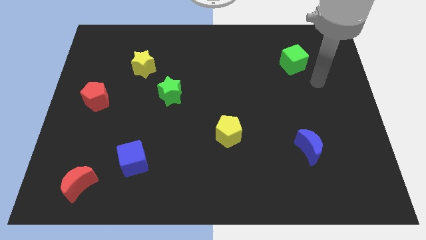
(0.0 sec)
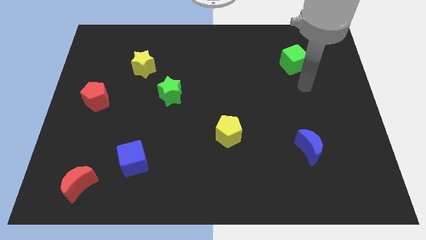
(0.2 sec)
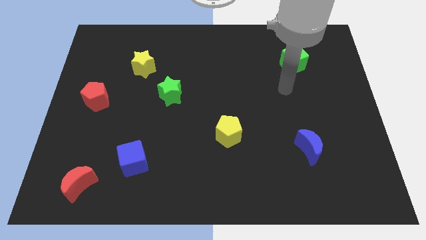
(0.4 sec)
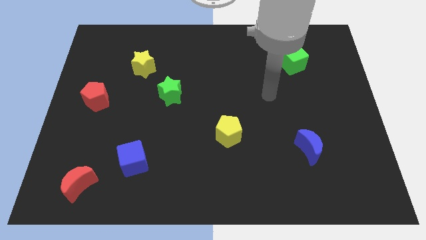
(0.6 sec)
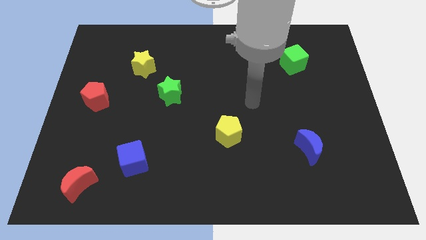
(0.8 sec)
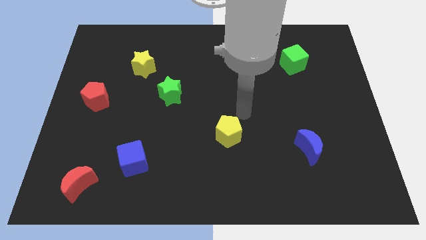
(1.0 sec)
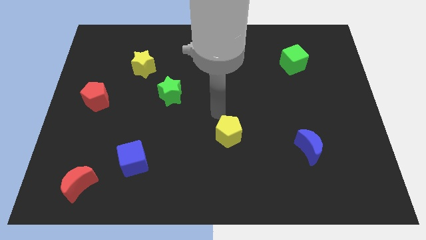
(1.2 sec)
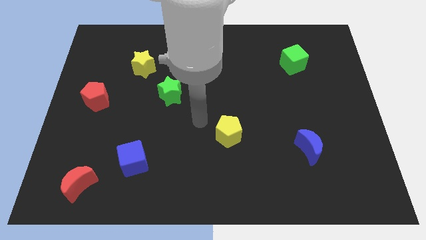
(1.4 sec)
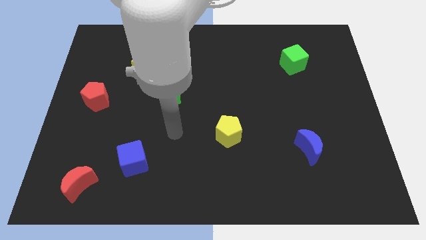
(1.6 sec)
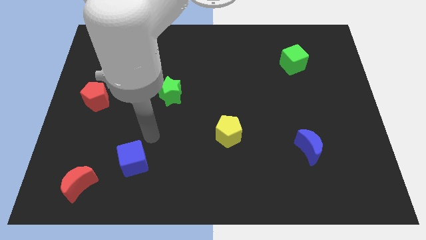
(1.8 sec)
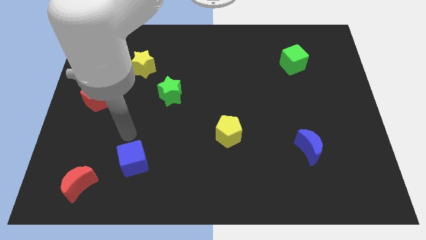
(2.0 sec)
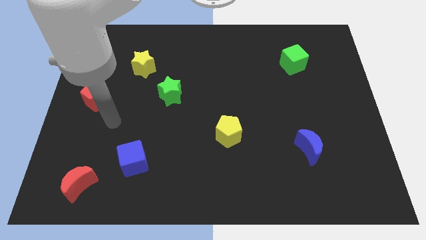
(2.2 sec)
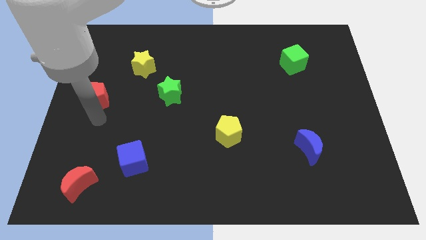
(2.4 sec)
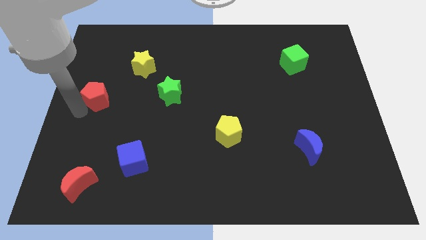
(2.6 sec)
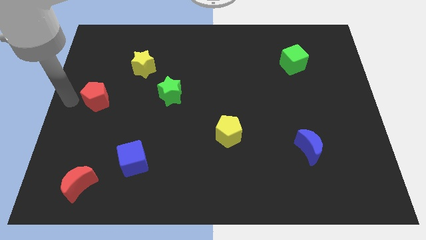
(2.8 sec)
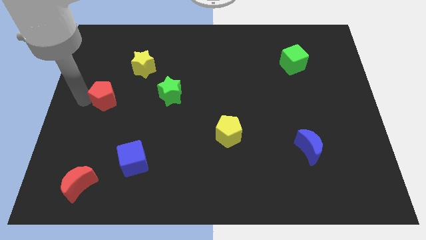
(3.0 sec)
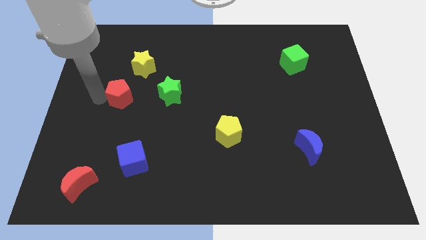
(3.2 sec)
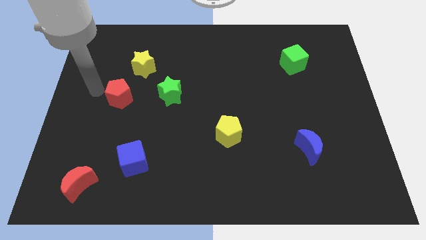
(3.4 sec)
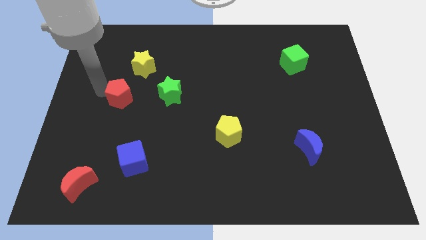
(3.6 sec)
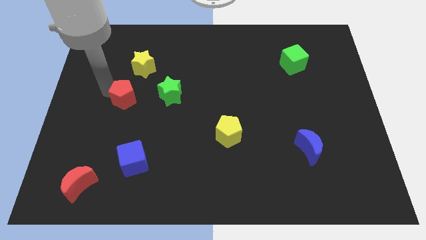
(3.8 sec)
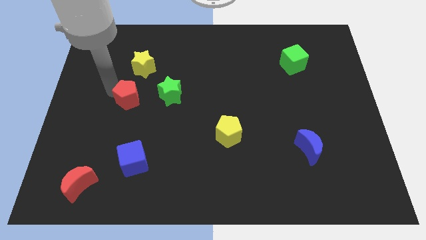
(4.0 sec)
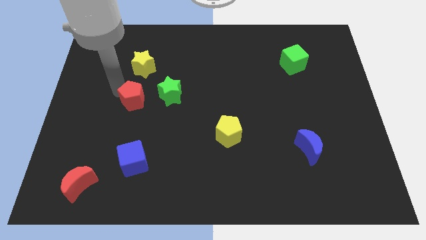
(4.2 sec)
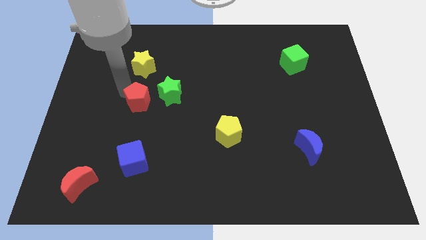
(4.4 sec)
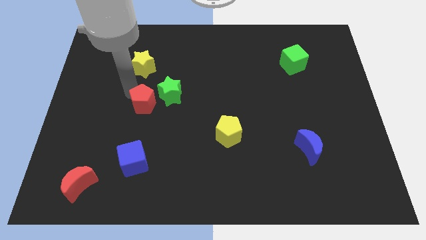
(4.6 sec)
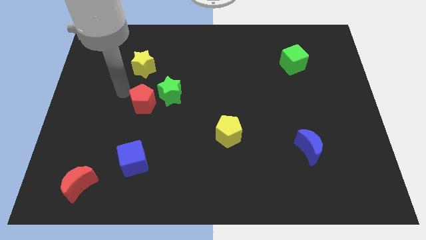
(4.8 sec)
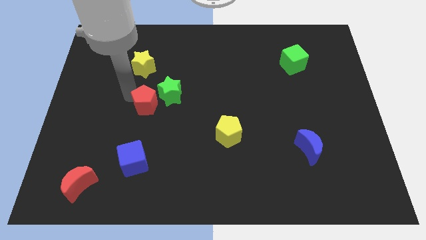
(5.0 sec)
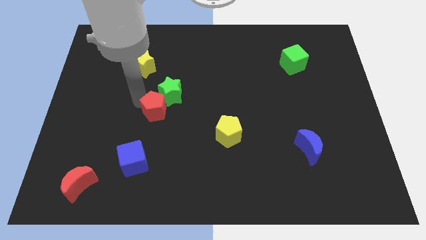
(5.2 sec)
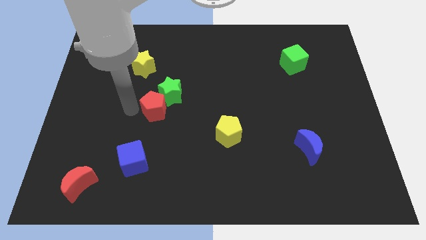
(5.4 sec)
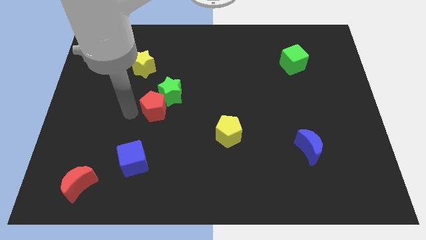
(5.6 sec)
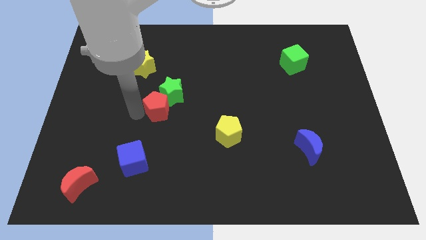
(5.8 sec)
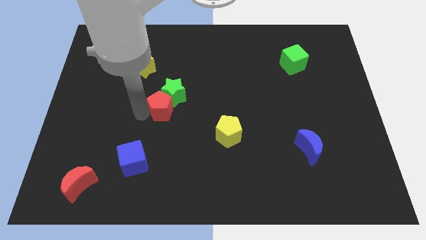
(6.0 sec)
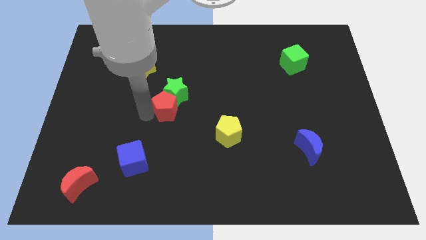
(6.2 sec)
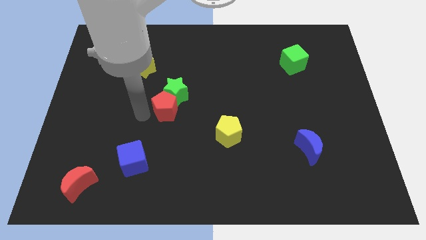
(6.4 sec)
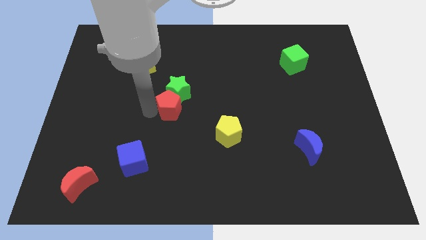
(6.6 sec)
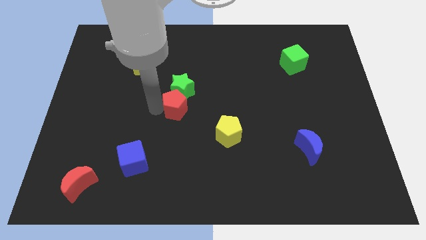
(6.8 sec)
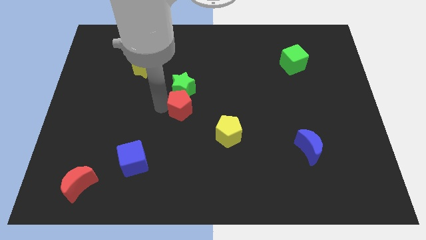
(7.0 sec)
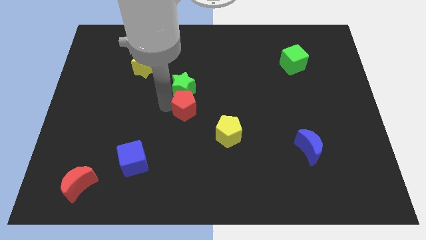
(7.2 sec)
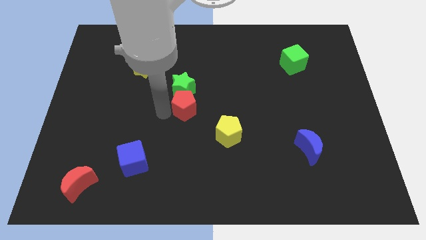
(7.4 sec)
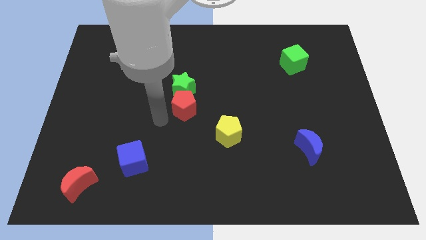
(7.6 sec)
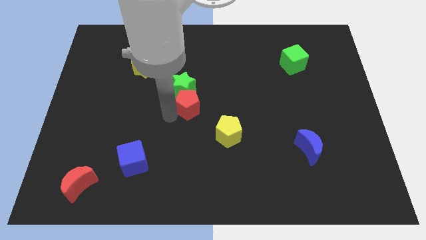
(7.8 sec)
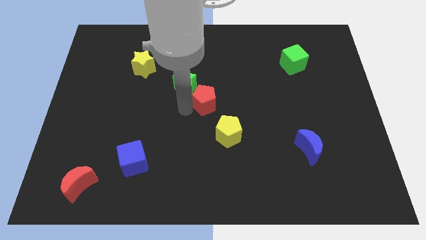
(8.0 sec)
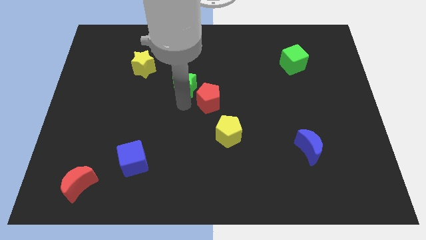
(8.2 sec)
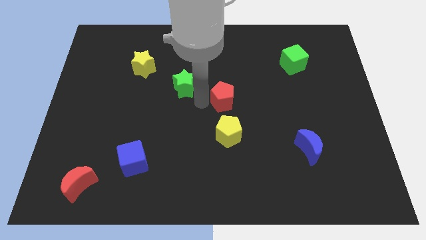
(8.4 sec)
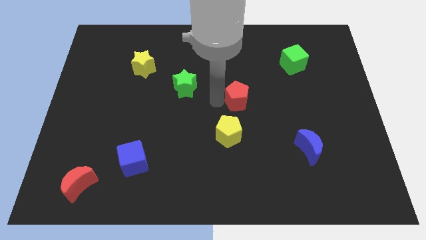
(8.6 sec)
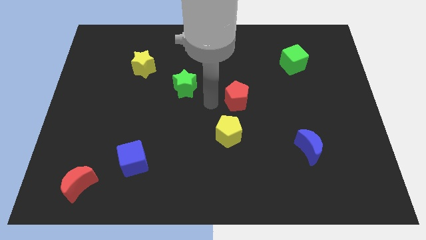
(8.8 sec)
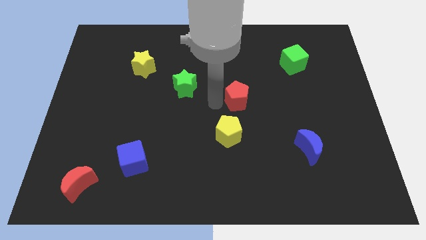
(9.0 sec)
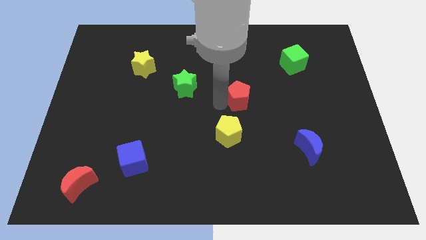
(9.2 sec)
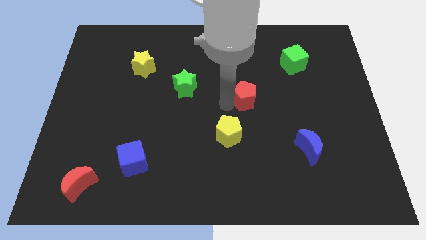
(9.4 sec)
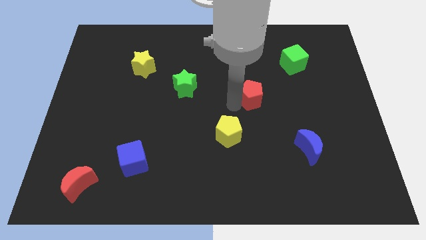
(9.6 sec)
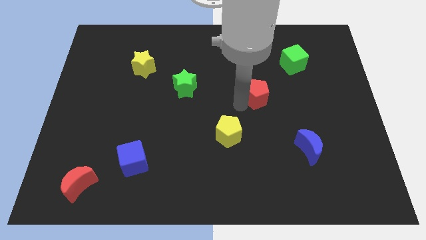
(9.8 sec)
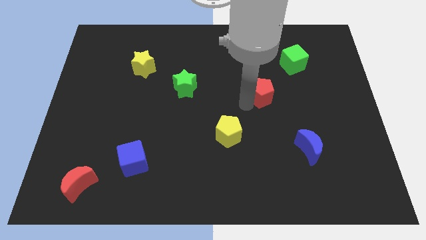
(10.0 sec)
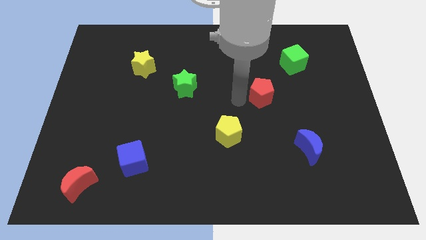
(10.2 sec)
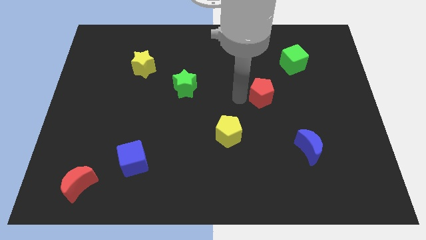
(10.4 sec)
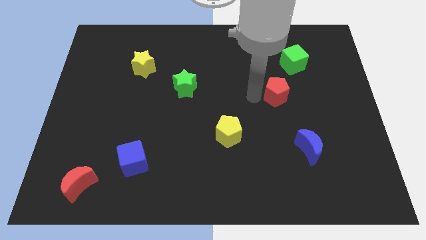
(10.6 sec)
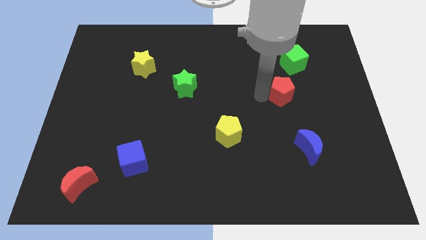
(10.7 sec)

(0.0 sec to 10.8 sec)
push the red pentagon to the bottom of the green cube

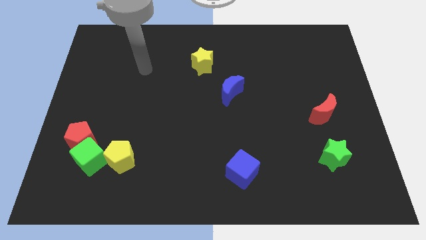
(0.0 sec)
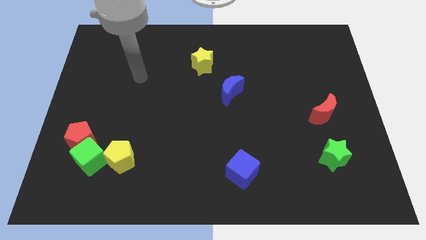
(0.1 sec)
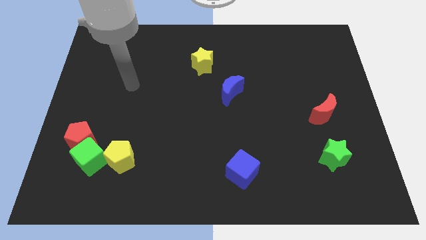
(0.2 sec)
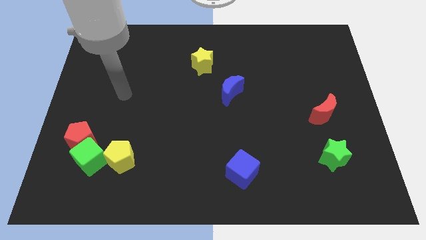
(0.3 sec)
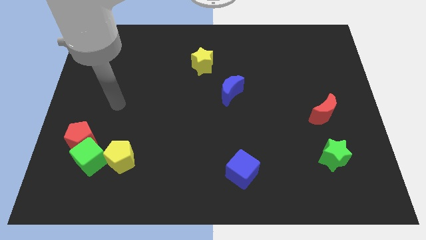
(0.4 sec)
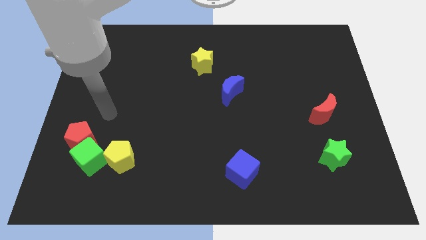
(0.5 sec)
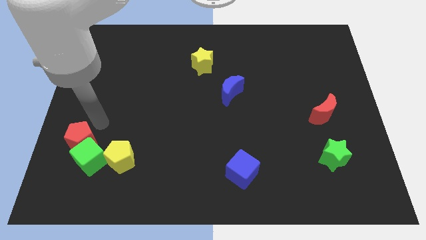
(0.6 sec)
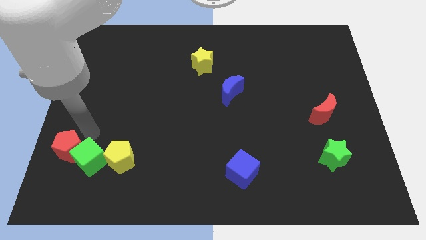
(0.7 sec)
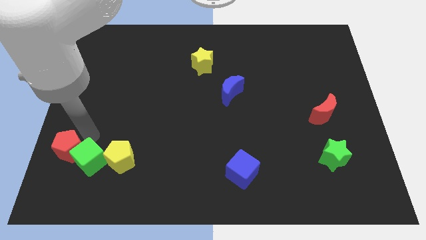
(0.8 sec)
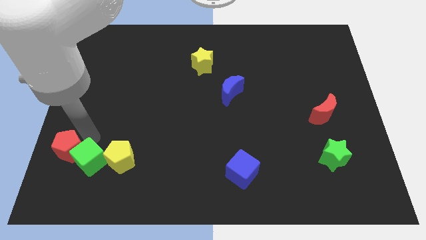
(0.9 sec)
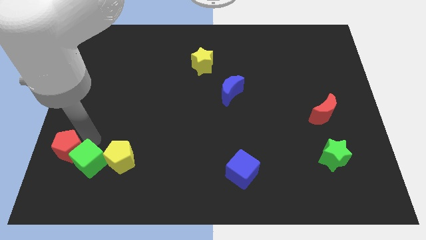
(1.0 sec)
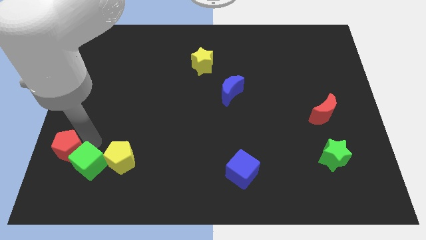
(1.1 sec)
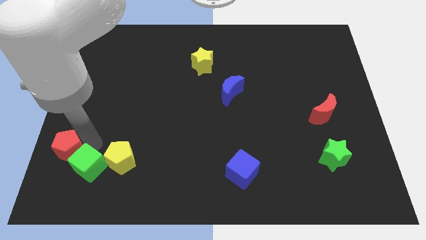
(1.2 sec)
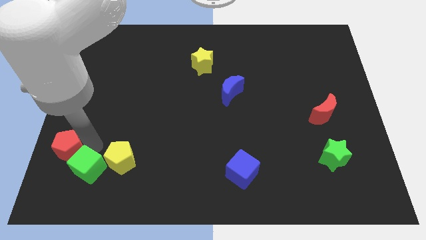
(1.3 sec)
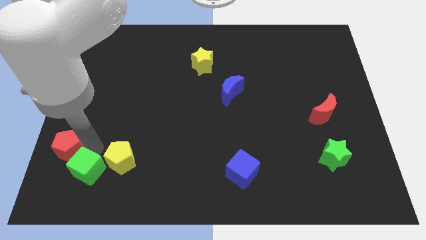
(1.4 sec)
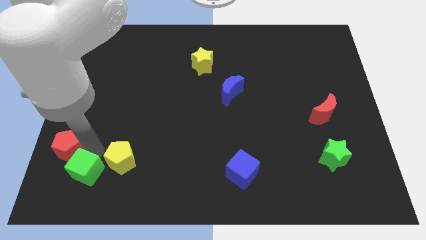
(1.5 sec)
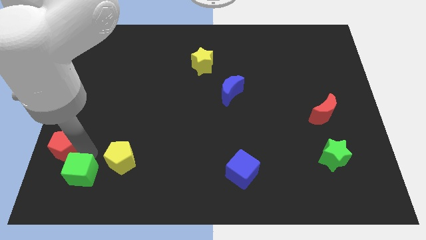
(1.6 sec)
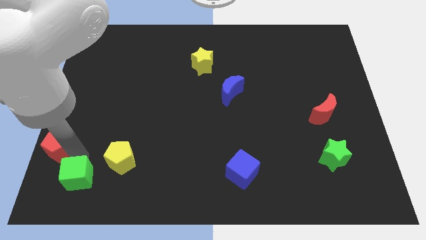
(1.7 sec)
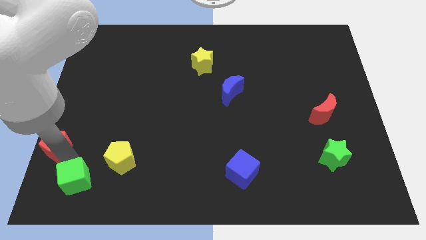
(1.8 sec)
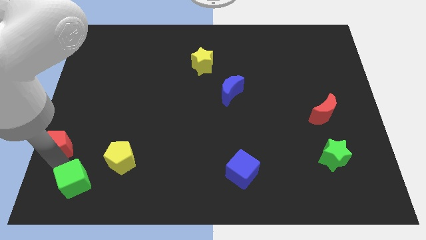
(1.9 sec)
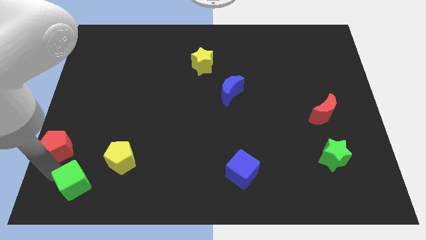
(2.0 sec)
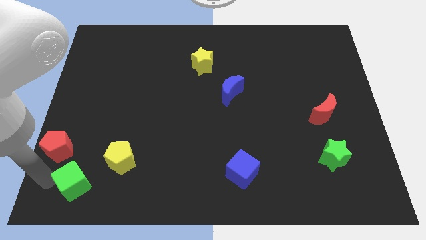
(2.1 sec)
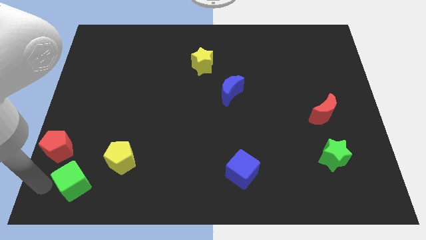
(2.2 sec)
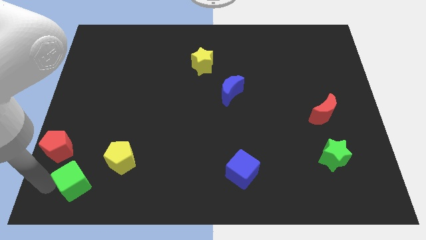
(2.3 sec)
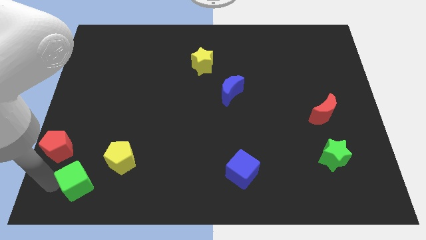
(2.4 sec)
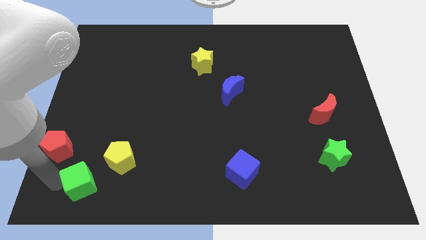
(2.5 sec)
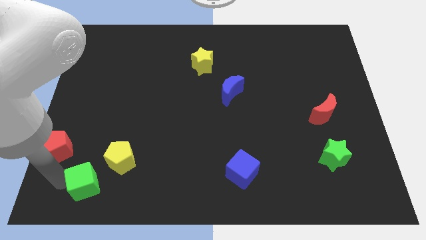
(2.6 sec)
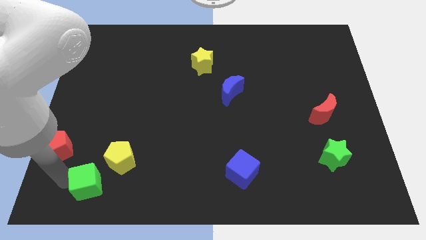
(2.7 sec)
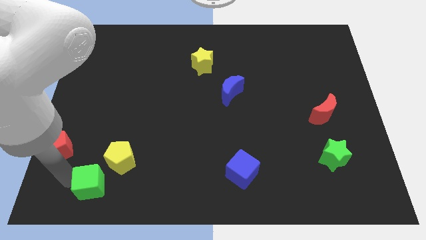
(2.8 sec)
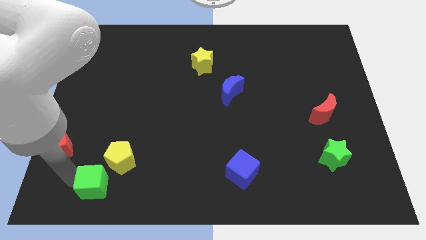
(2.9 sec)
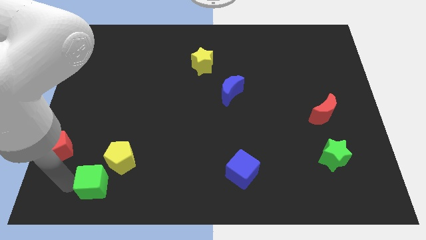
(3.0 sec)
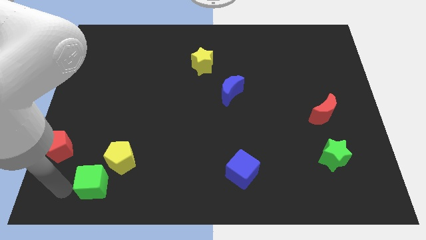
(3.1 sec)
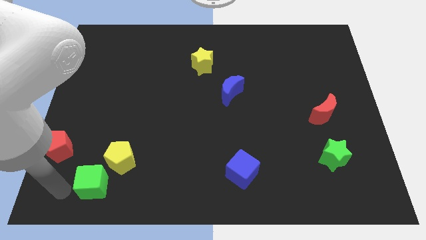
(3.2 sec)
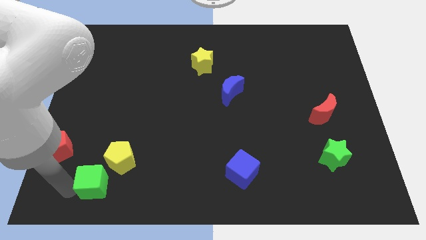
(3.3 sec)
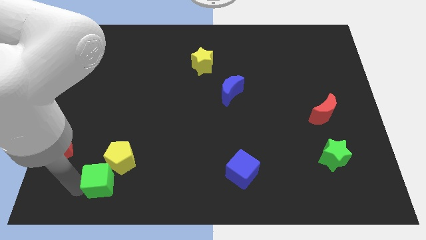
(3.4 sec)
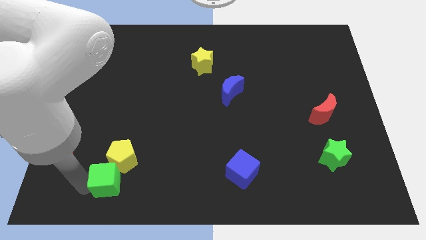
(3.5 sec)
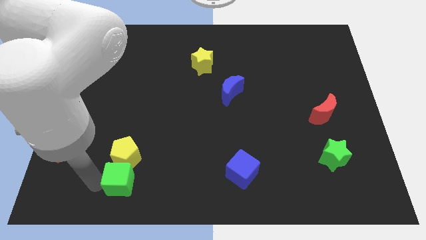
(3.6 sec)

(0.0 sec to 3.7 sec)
put the green cube to the bottom right side of the yellow pentagon
